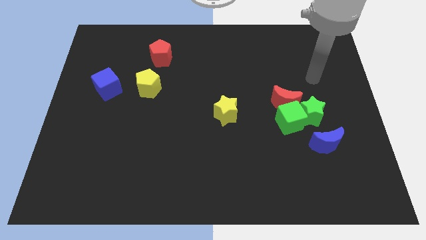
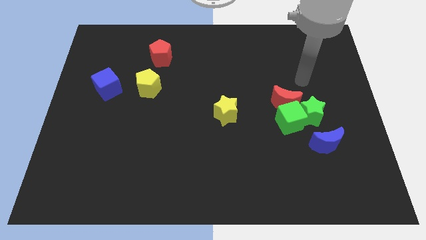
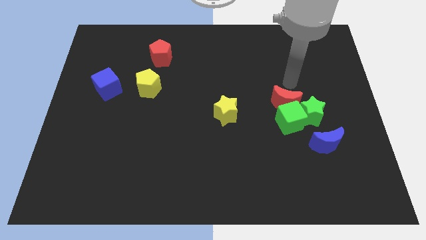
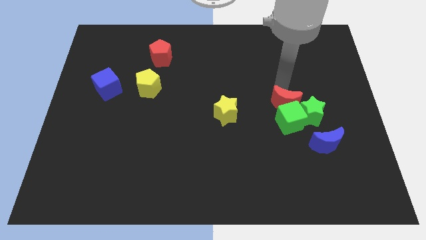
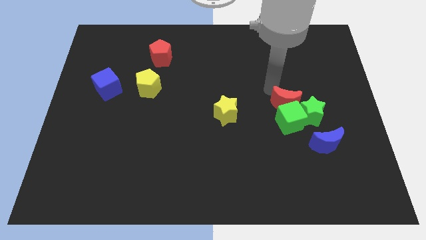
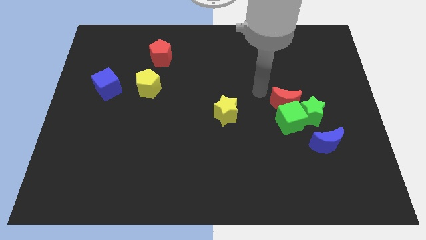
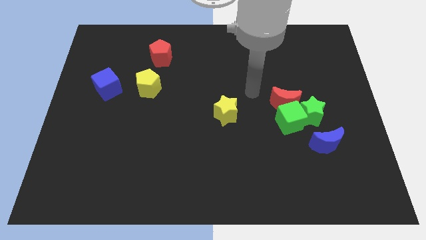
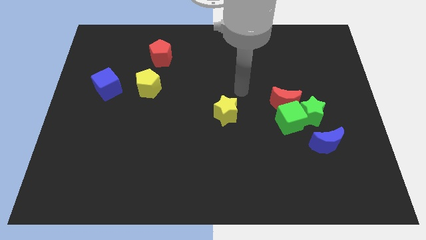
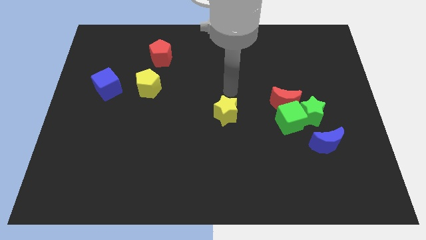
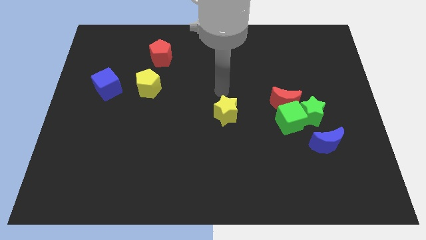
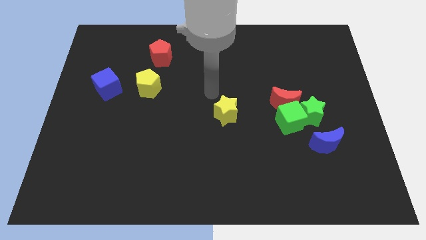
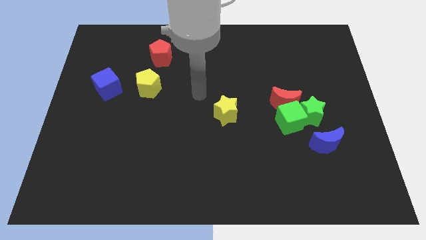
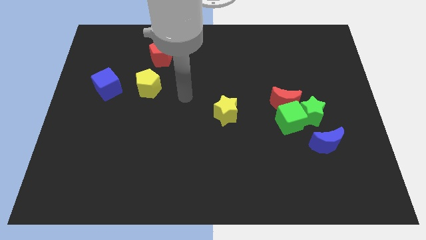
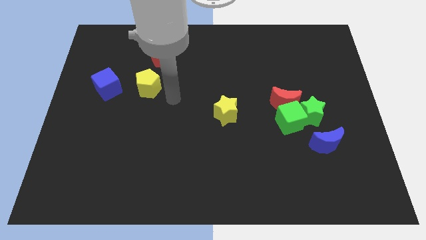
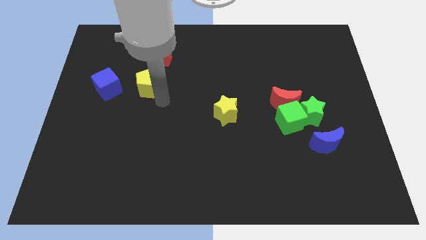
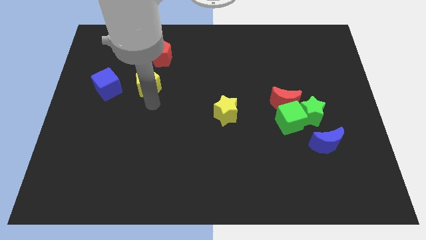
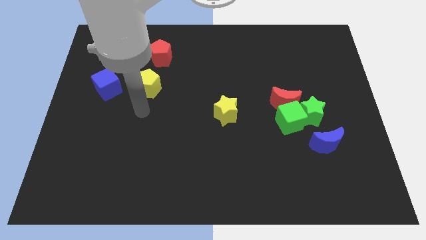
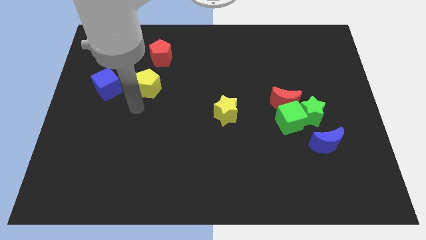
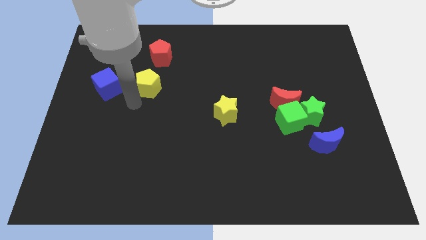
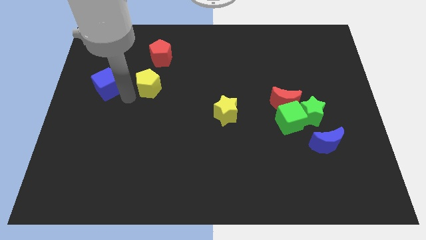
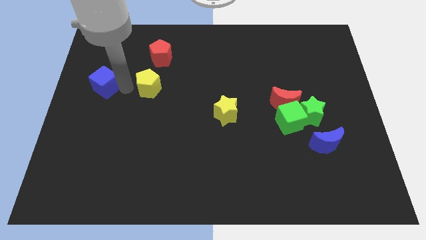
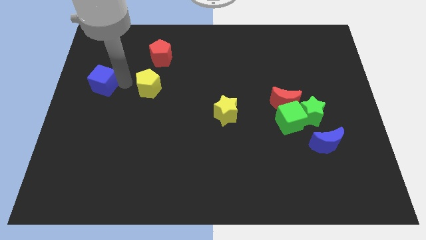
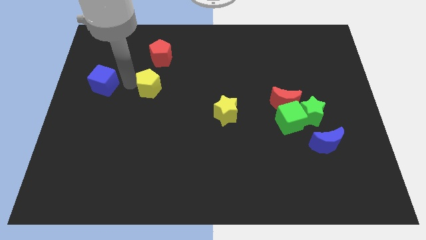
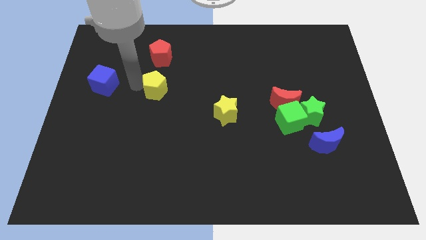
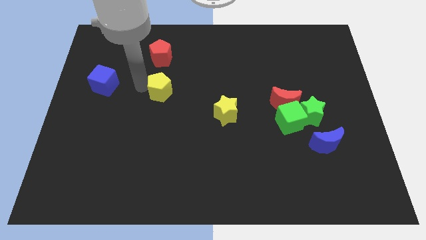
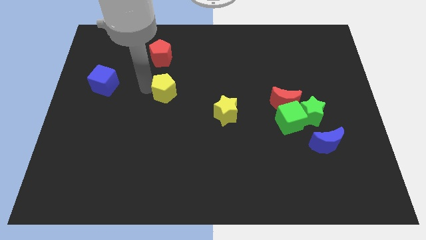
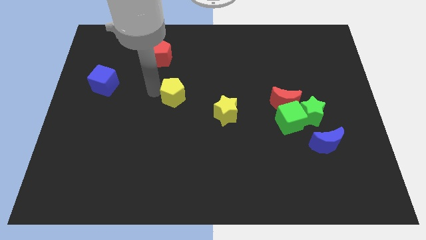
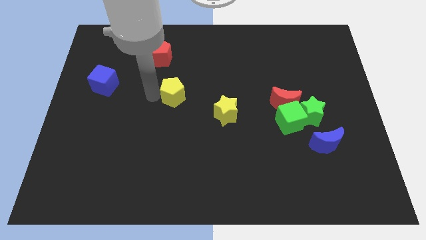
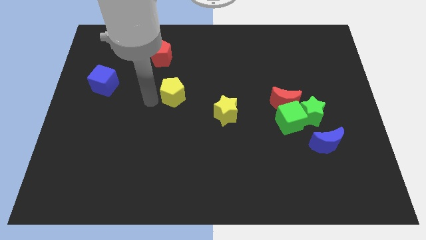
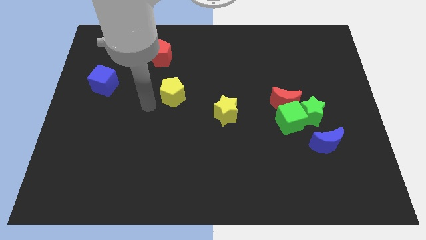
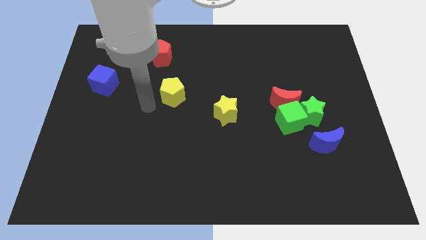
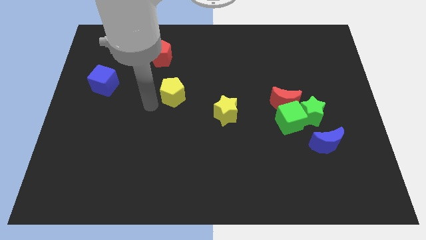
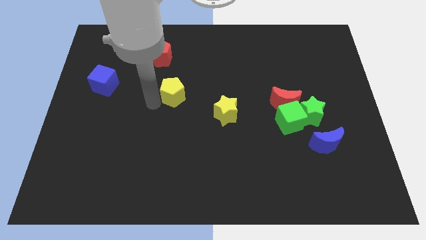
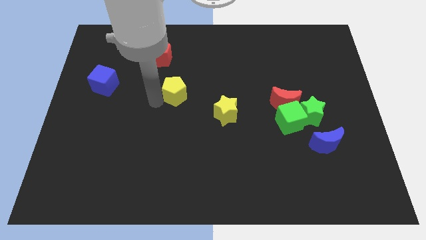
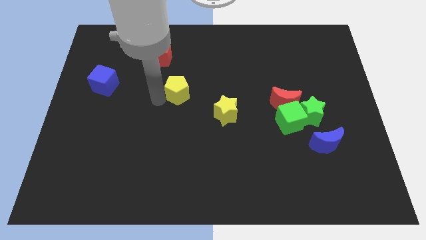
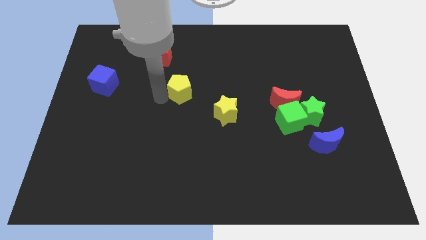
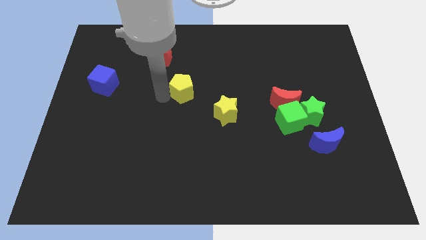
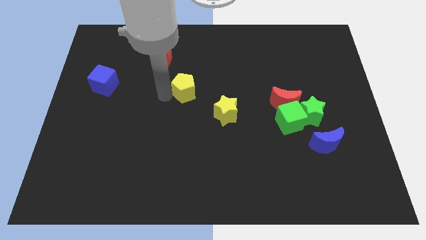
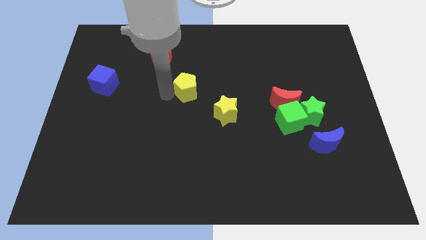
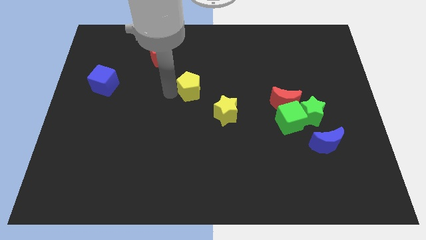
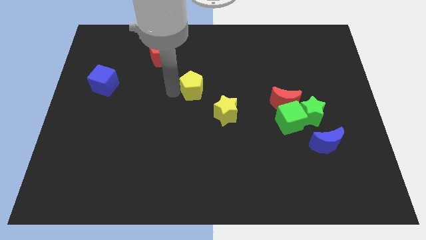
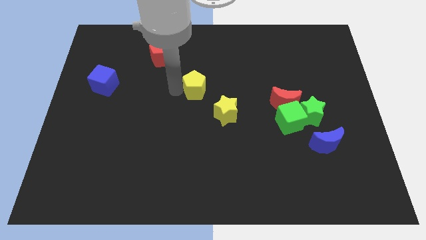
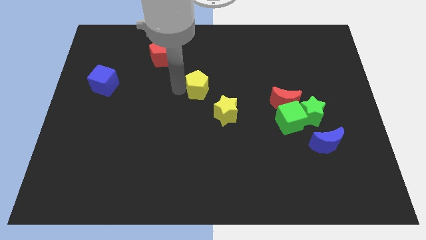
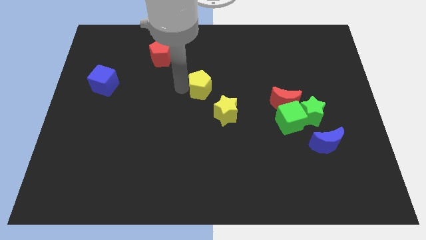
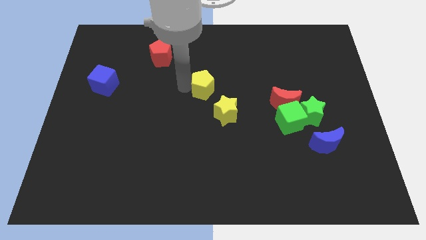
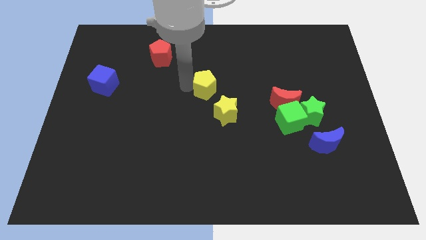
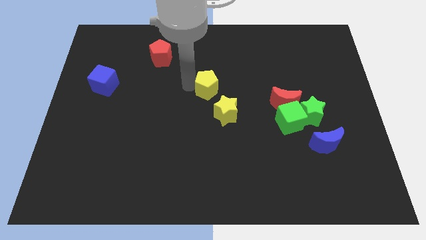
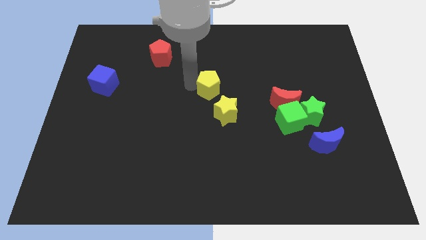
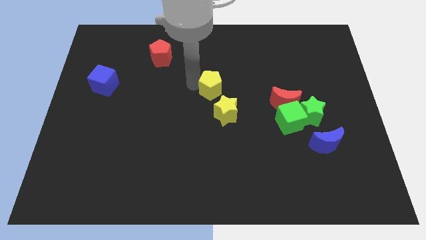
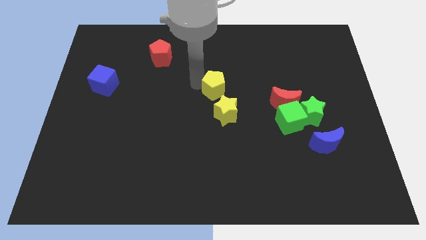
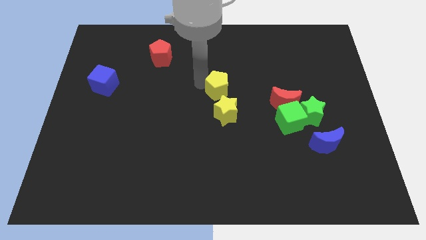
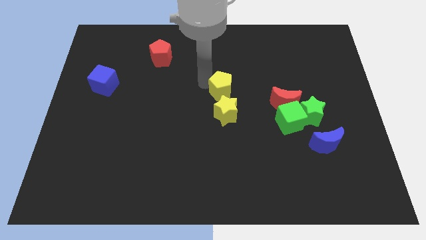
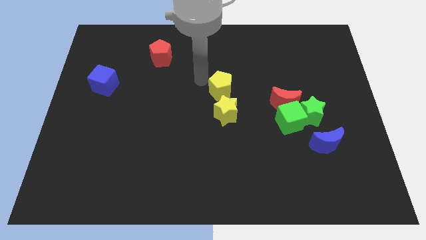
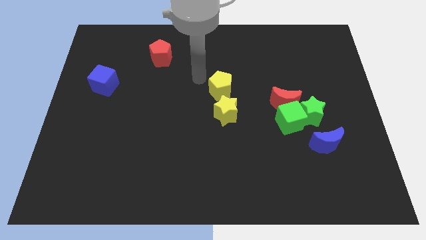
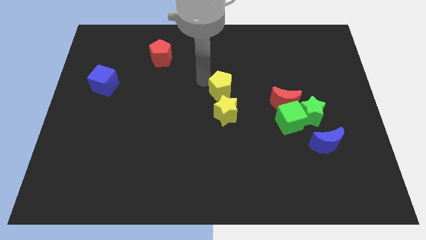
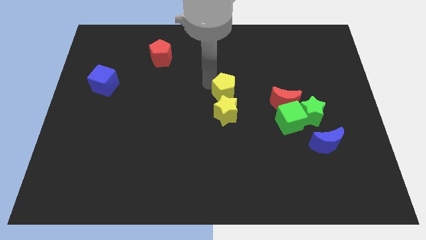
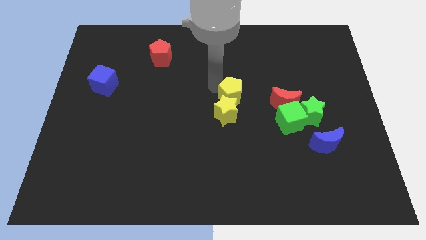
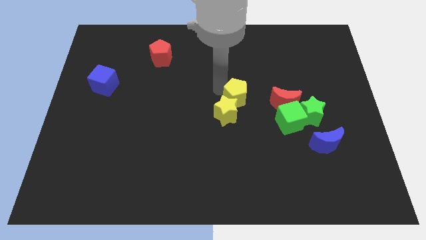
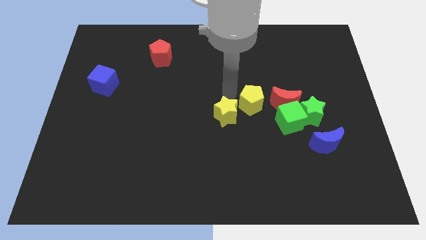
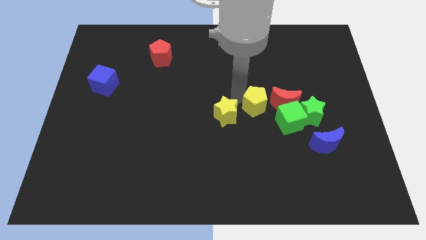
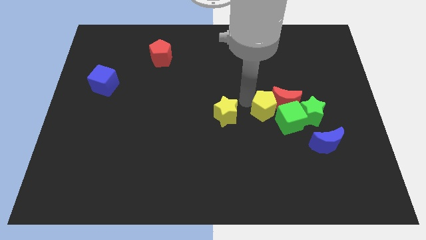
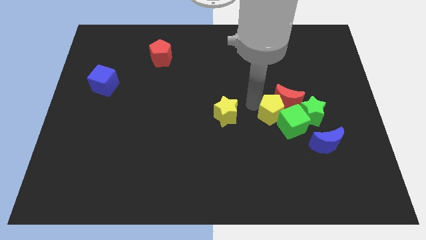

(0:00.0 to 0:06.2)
push the yellow pentagon next to the green cube

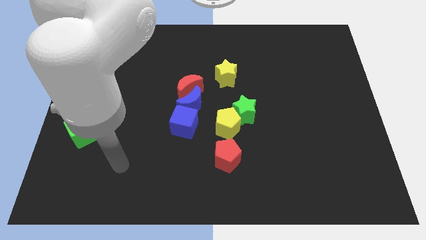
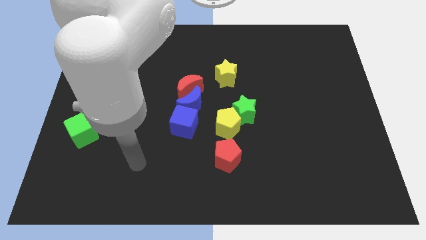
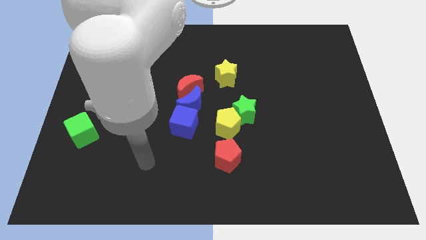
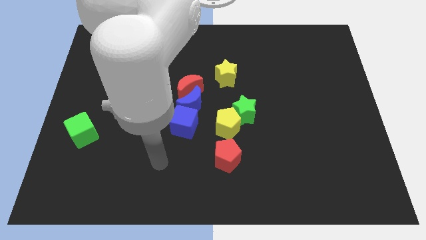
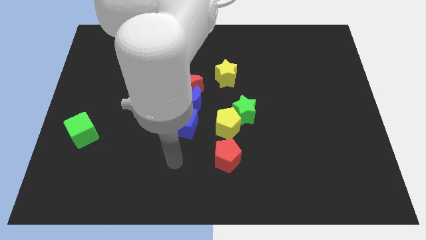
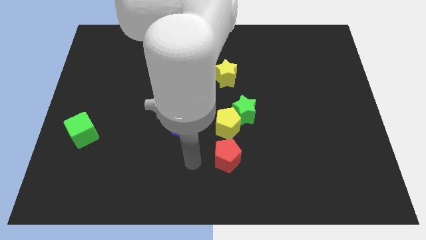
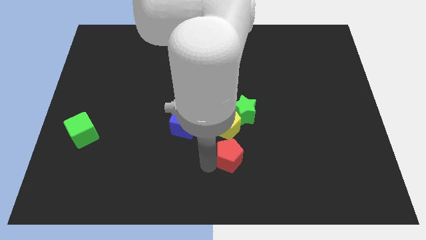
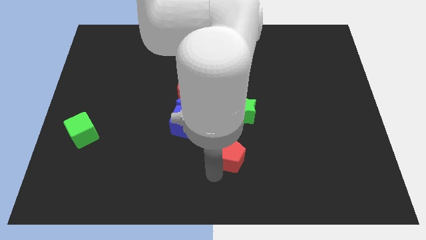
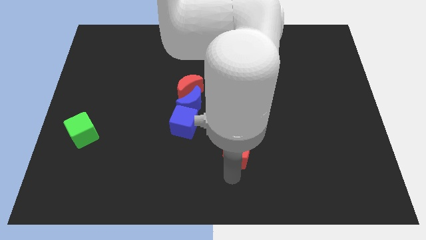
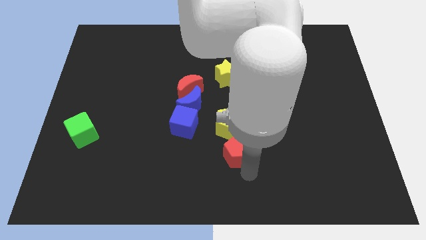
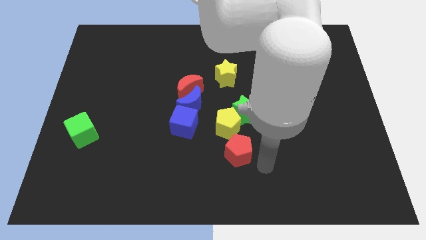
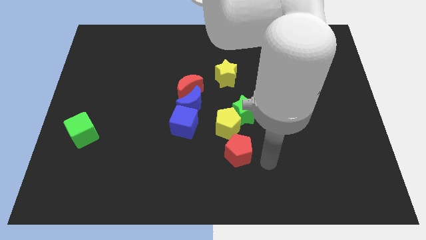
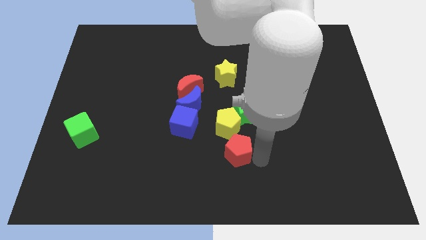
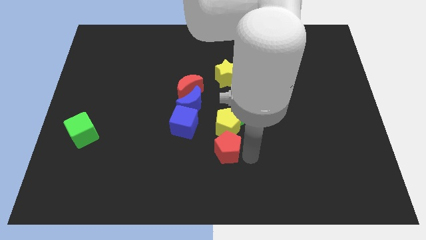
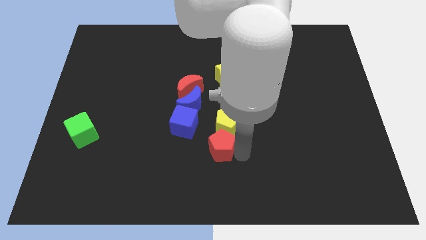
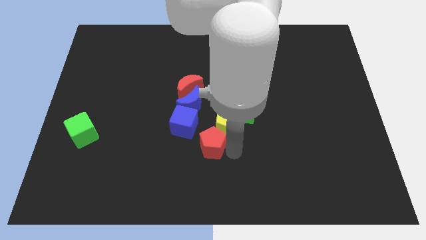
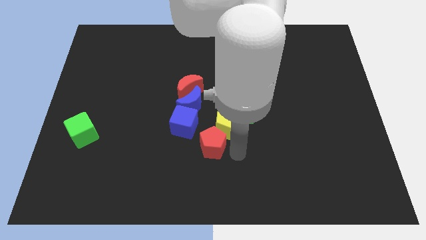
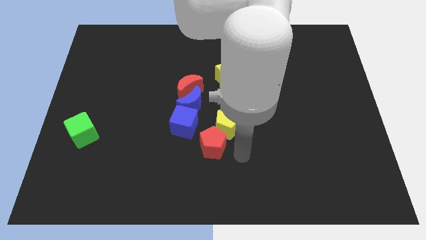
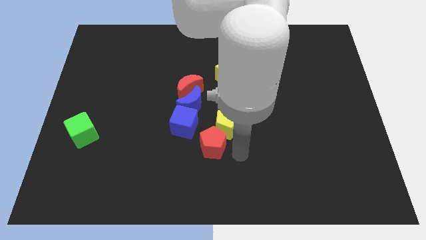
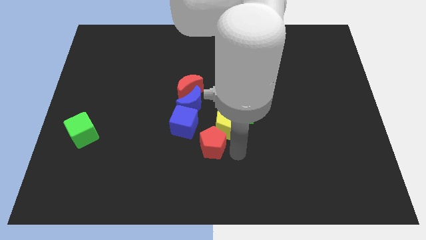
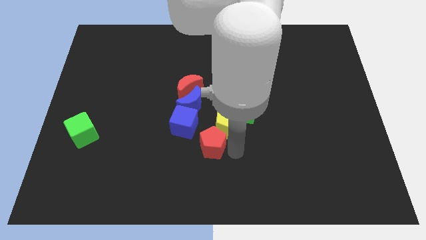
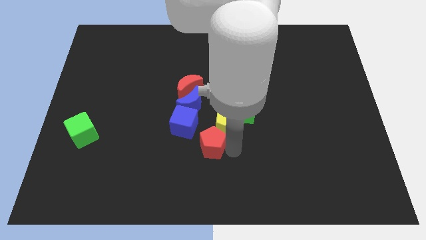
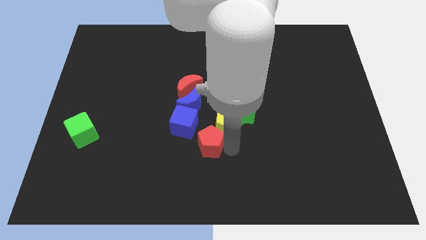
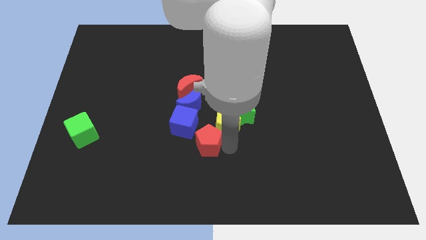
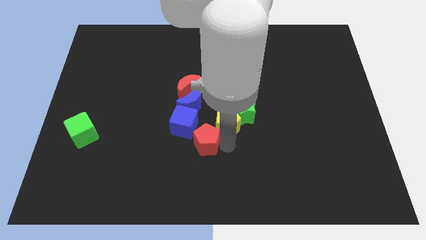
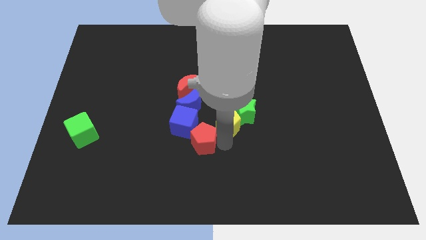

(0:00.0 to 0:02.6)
slide the red pentagon towards the blue cube
